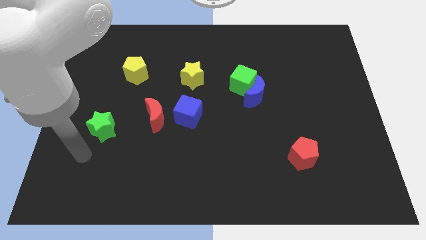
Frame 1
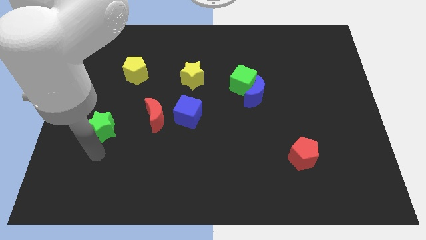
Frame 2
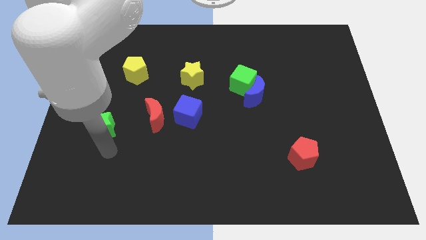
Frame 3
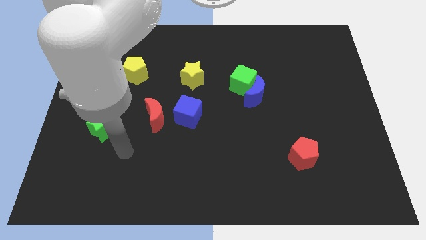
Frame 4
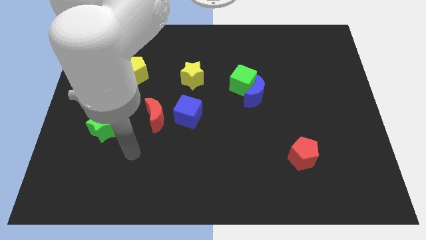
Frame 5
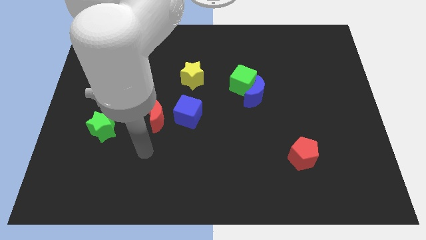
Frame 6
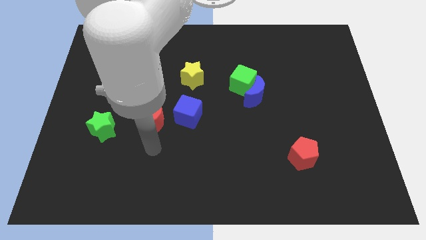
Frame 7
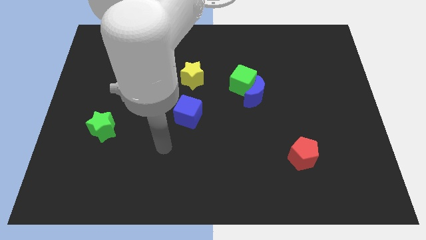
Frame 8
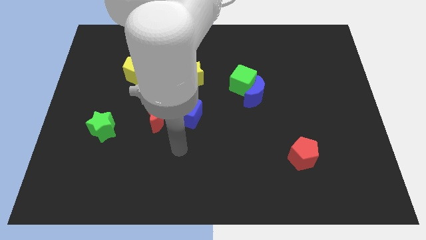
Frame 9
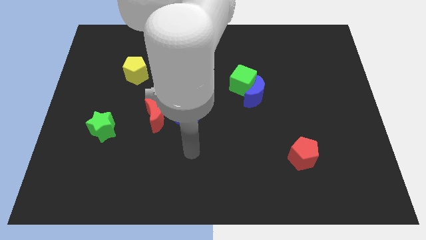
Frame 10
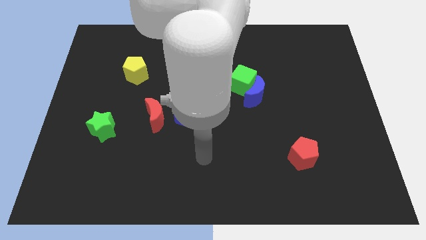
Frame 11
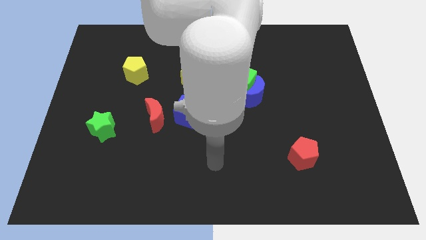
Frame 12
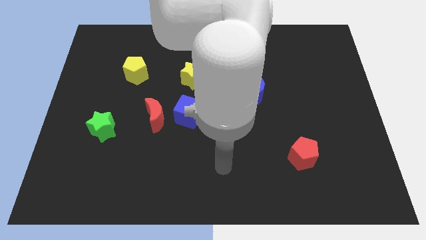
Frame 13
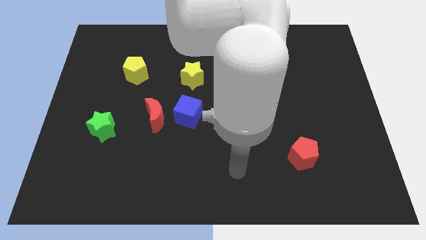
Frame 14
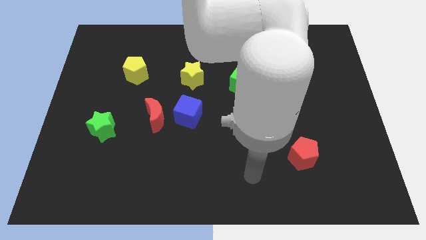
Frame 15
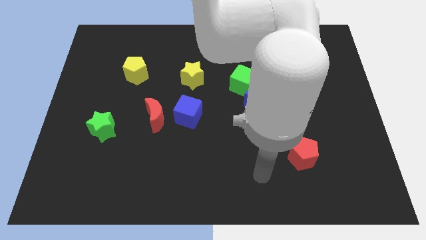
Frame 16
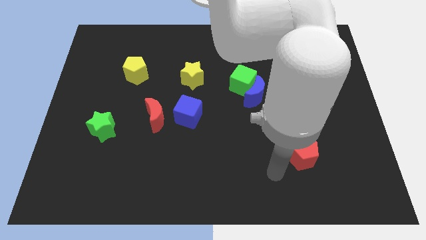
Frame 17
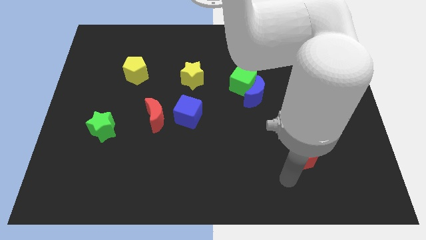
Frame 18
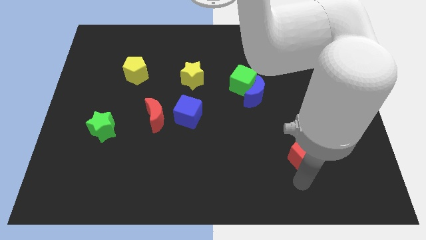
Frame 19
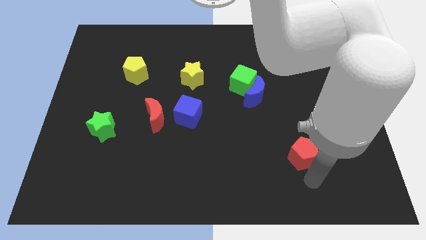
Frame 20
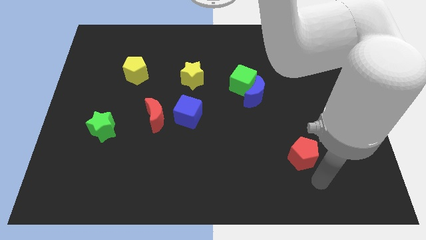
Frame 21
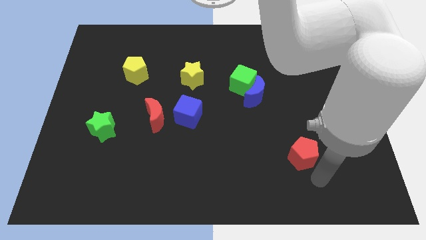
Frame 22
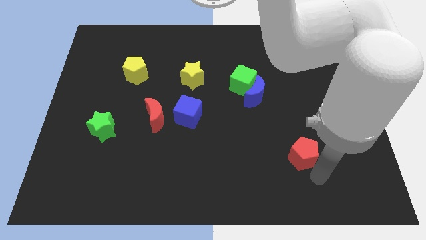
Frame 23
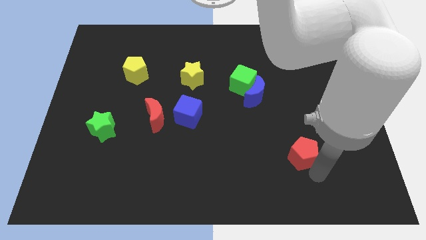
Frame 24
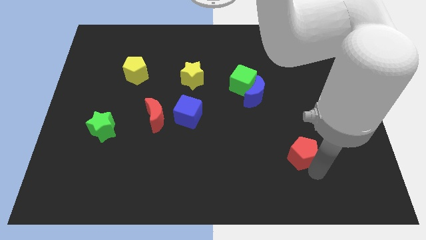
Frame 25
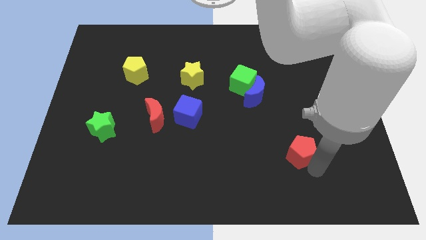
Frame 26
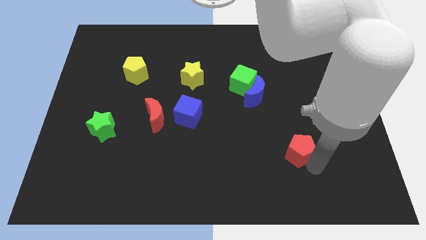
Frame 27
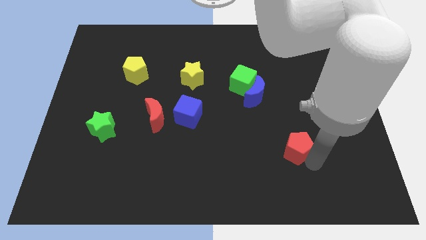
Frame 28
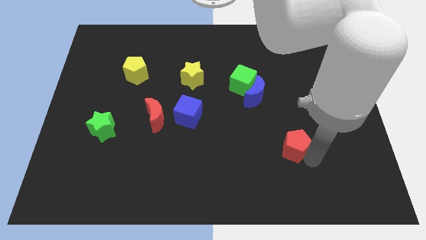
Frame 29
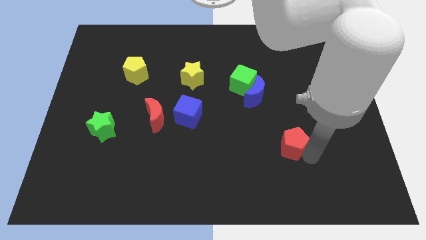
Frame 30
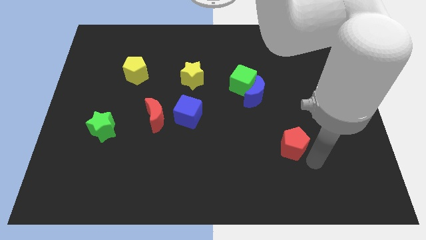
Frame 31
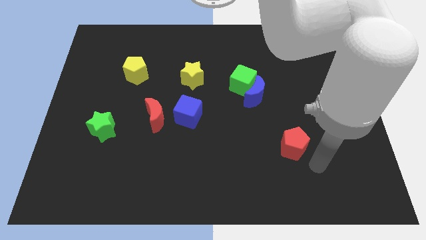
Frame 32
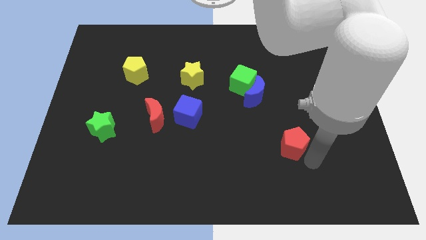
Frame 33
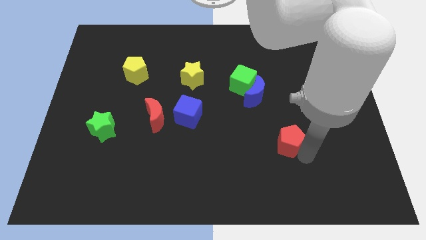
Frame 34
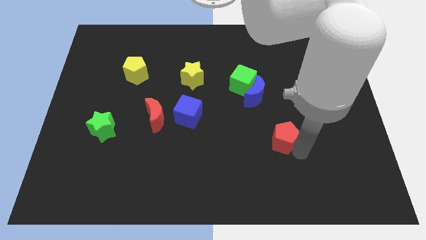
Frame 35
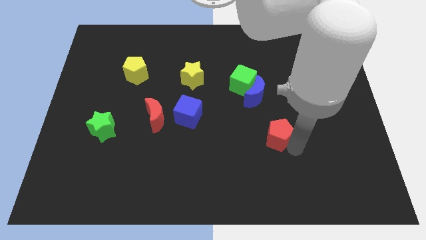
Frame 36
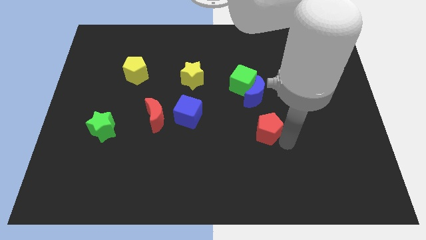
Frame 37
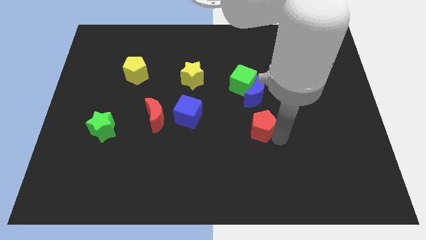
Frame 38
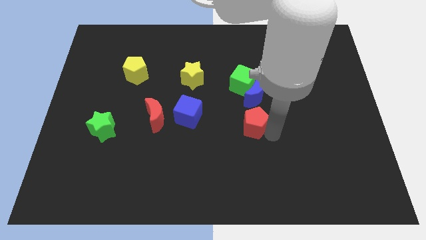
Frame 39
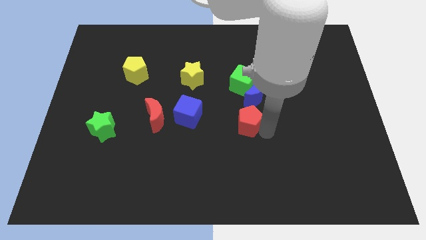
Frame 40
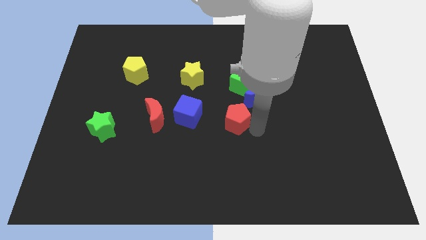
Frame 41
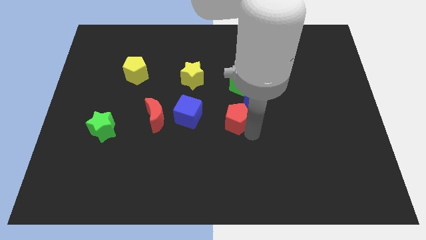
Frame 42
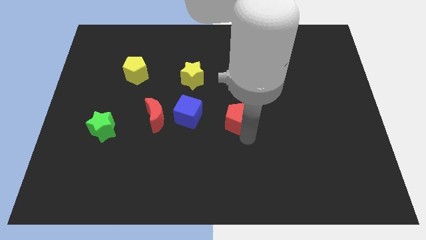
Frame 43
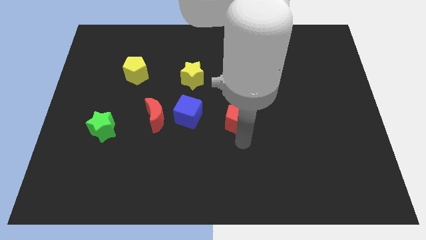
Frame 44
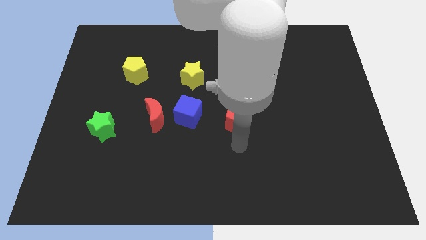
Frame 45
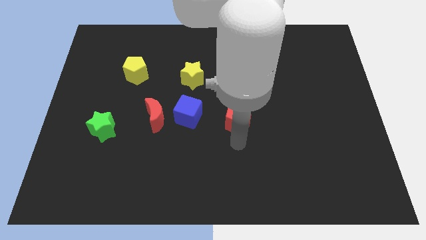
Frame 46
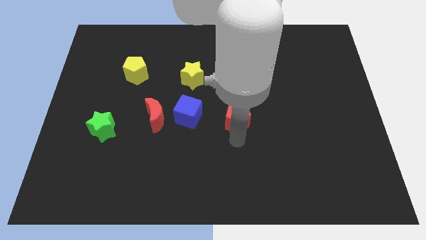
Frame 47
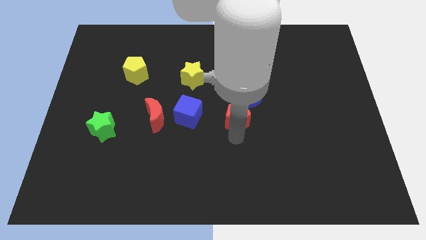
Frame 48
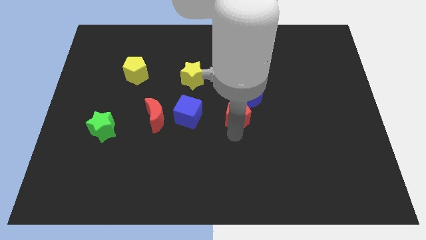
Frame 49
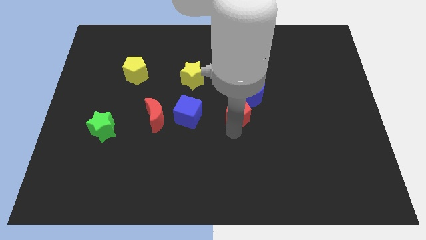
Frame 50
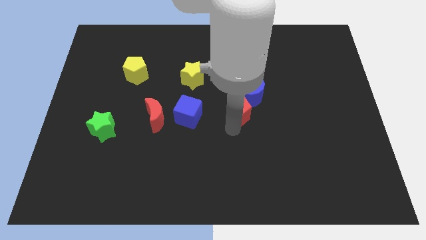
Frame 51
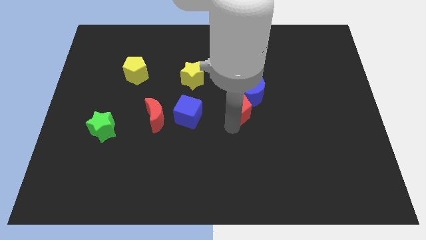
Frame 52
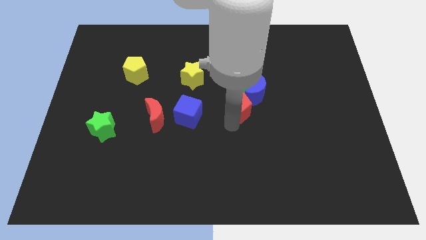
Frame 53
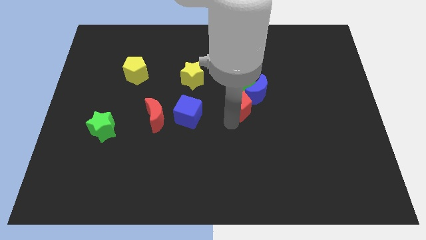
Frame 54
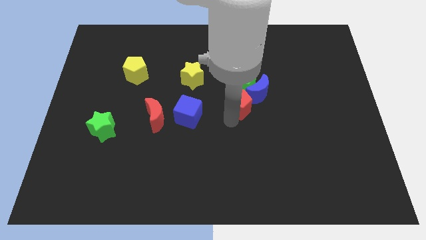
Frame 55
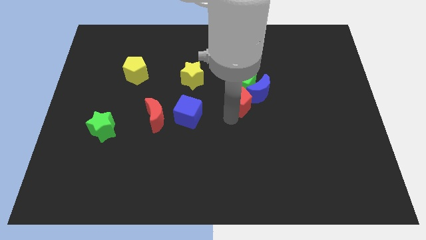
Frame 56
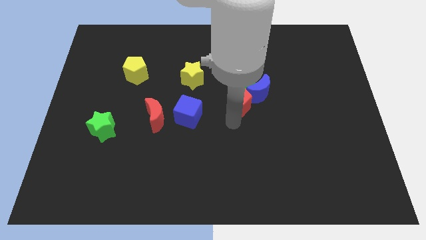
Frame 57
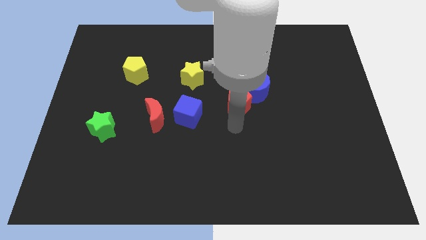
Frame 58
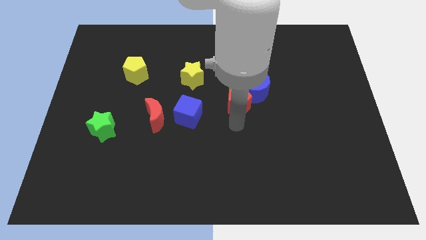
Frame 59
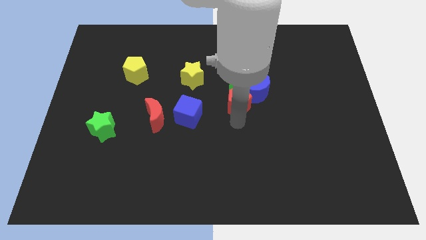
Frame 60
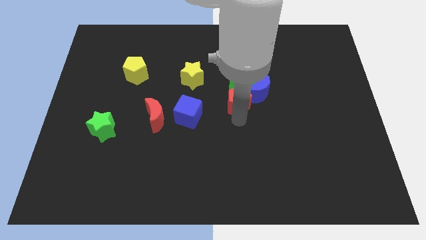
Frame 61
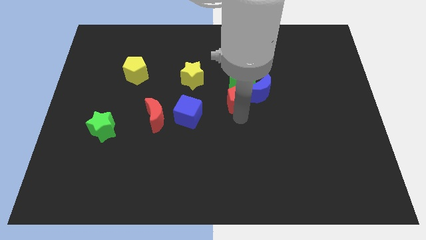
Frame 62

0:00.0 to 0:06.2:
slide the red pentagon close to the green cube

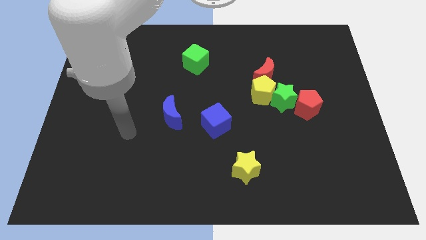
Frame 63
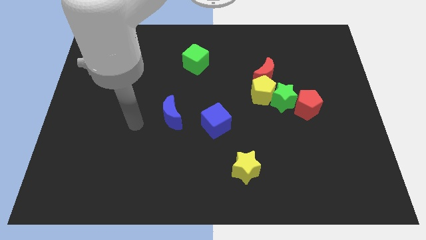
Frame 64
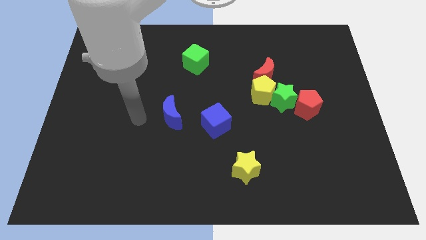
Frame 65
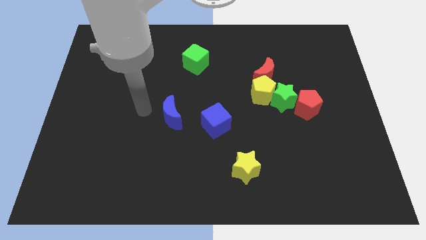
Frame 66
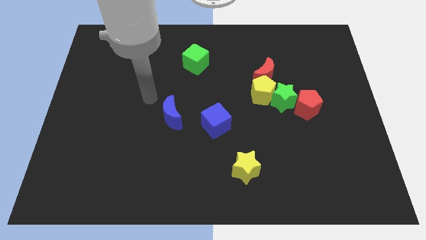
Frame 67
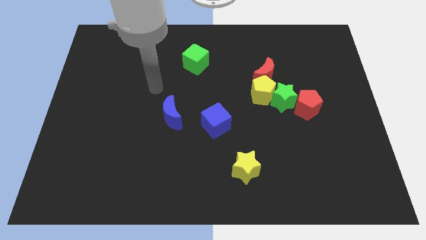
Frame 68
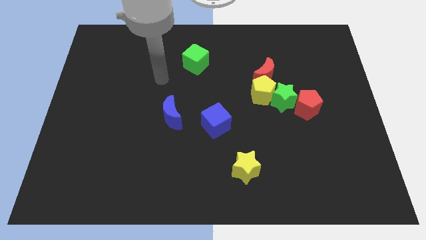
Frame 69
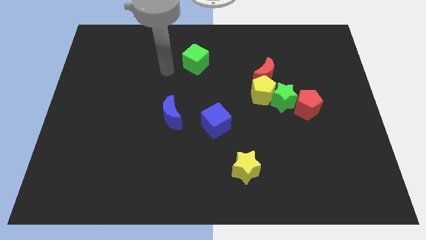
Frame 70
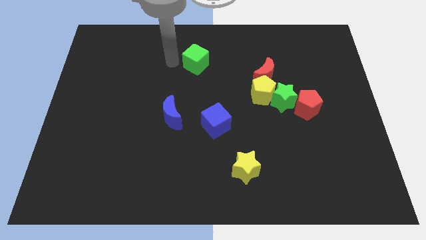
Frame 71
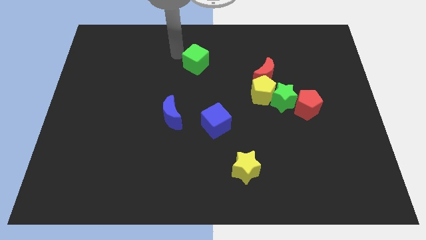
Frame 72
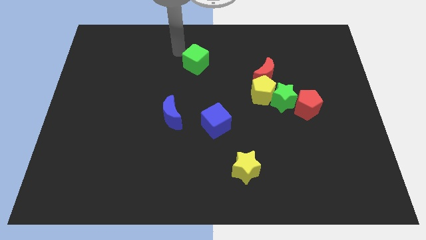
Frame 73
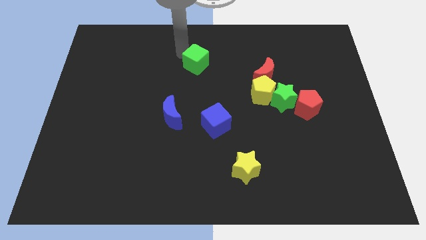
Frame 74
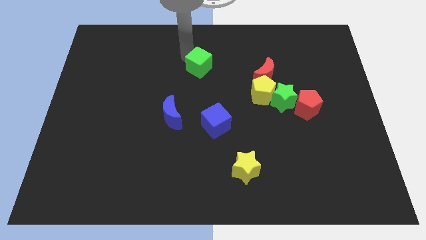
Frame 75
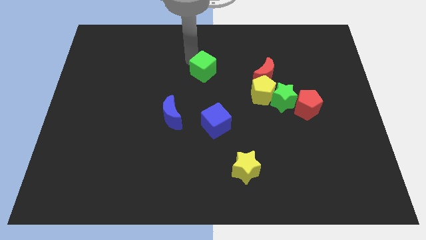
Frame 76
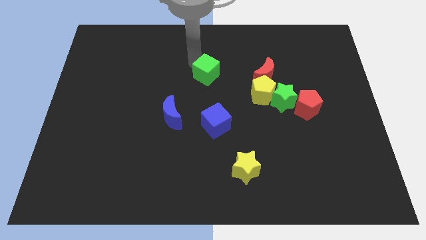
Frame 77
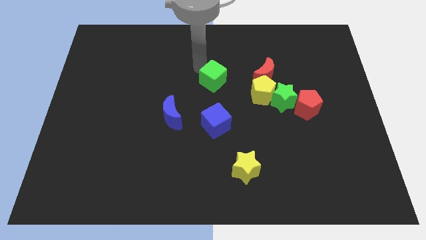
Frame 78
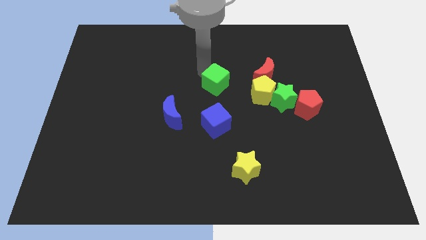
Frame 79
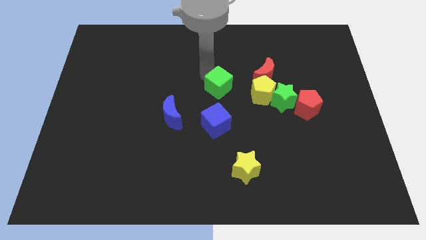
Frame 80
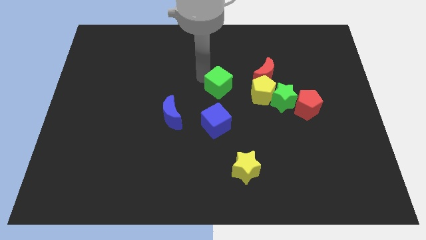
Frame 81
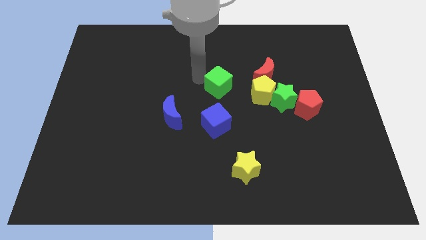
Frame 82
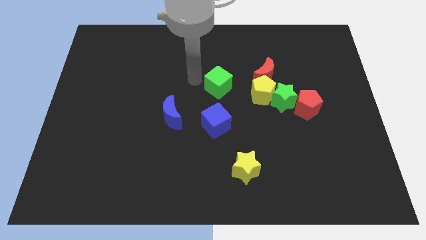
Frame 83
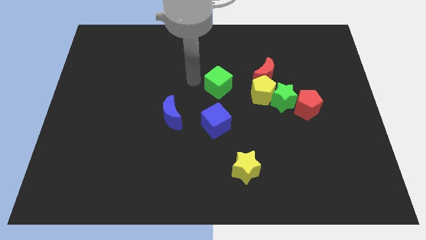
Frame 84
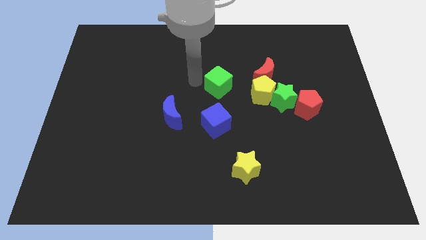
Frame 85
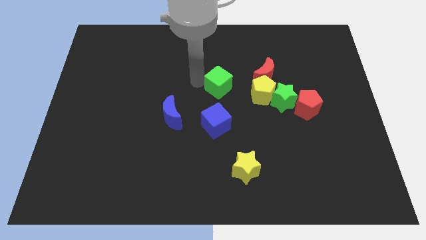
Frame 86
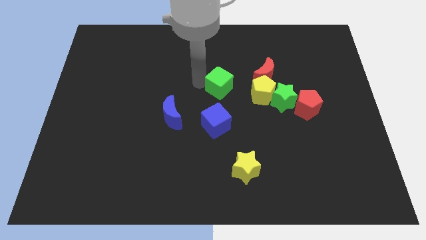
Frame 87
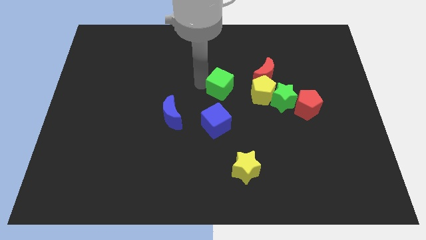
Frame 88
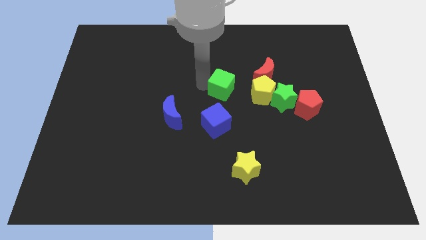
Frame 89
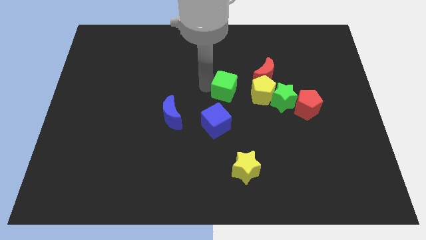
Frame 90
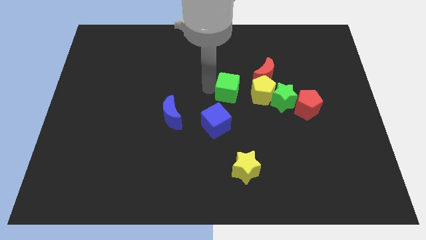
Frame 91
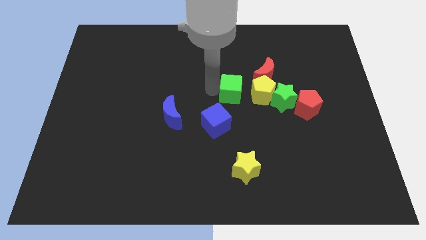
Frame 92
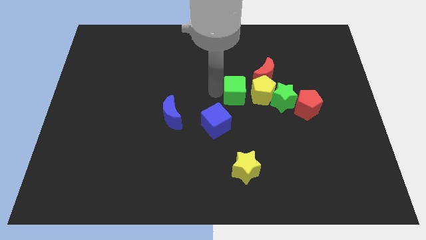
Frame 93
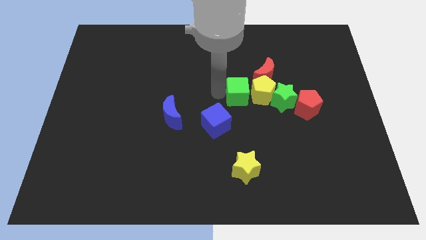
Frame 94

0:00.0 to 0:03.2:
move the green cube close to the yellow pentagon
